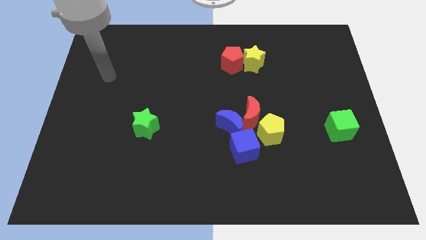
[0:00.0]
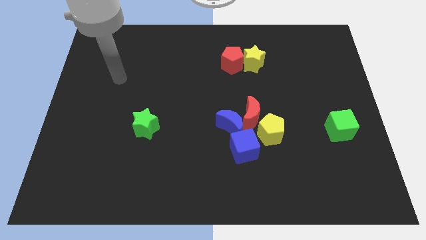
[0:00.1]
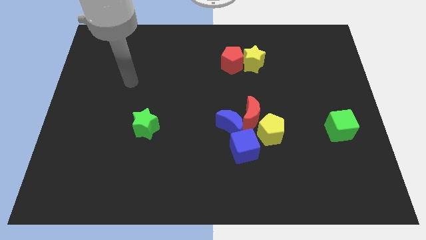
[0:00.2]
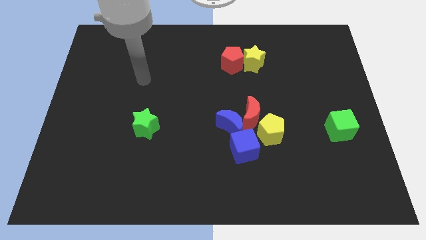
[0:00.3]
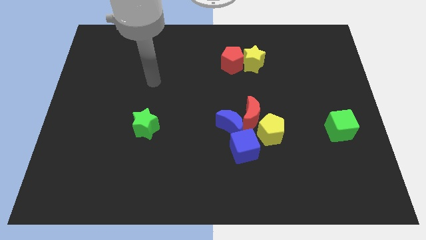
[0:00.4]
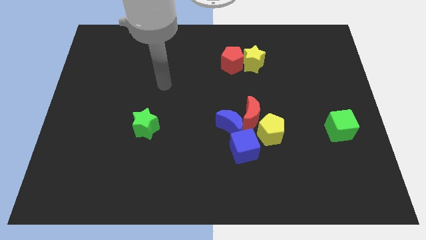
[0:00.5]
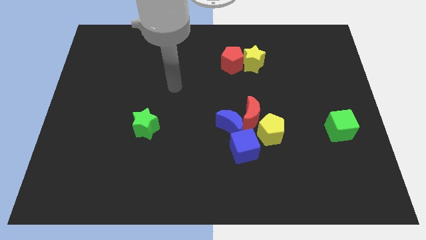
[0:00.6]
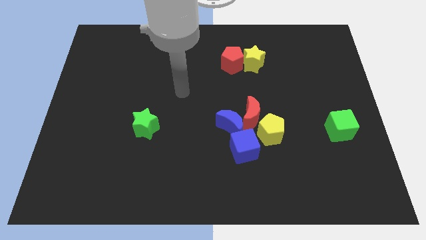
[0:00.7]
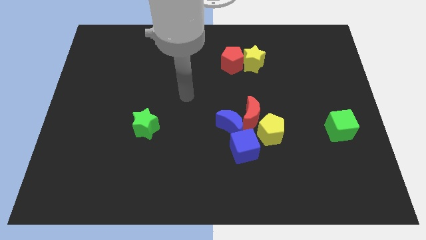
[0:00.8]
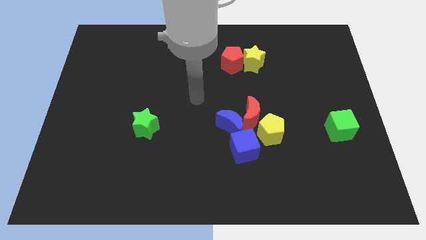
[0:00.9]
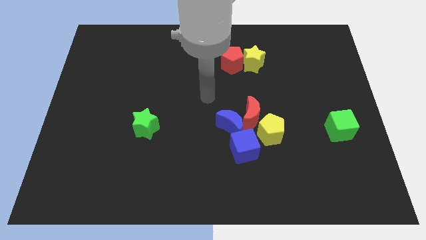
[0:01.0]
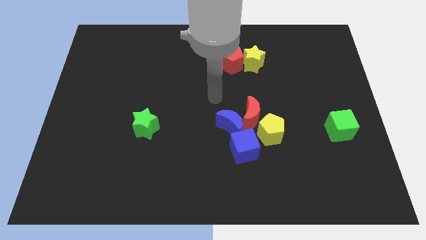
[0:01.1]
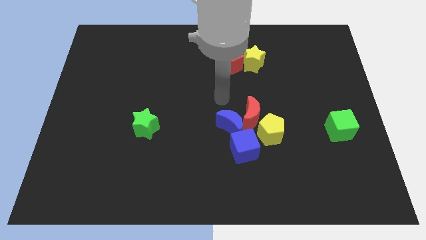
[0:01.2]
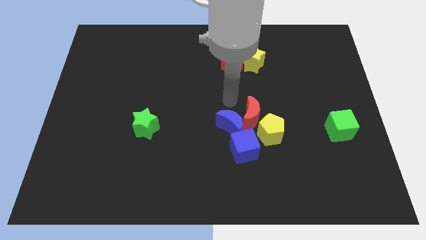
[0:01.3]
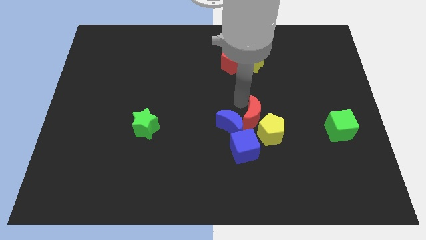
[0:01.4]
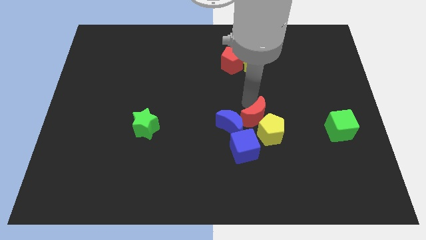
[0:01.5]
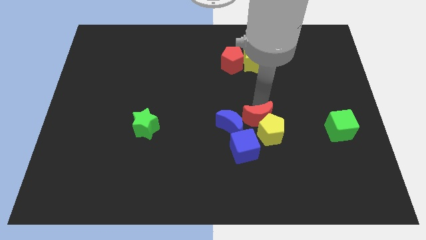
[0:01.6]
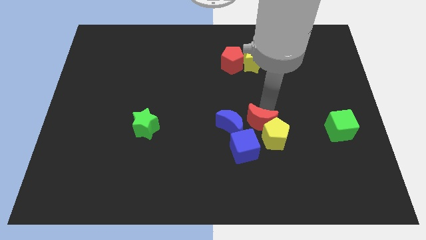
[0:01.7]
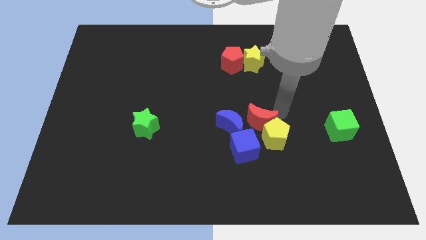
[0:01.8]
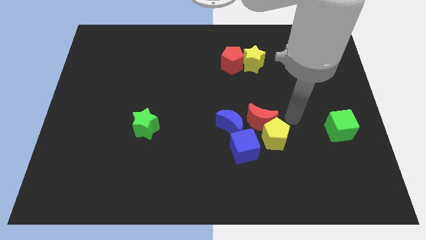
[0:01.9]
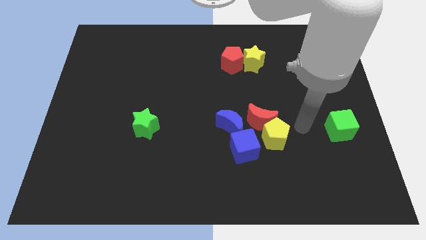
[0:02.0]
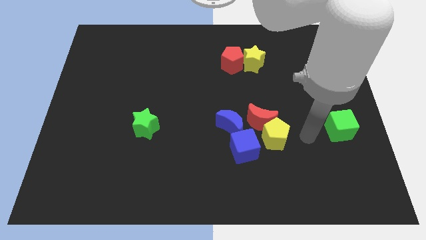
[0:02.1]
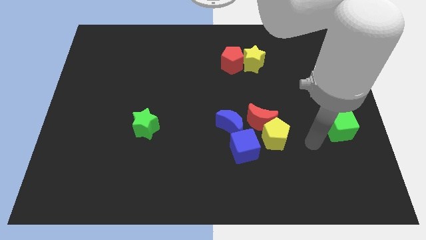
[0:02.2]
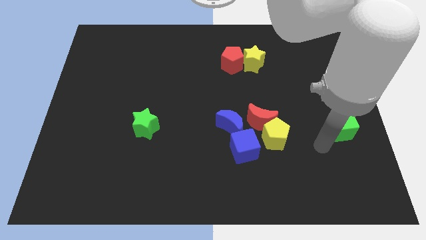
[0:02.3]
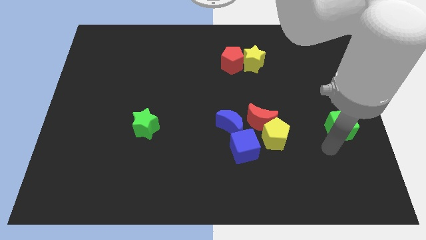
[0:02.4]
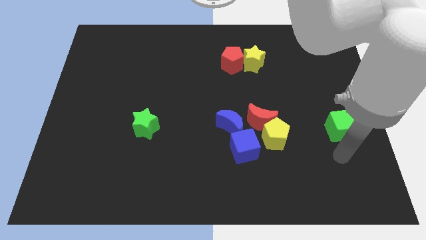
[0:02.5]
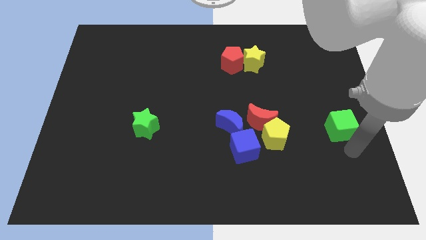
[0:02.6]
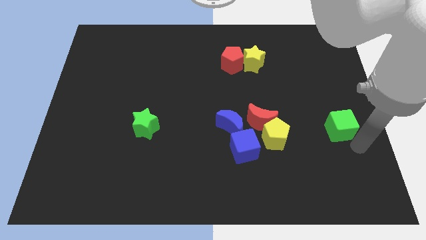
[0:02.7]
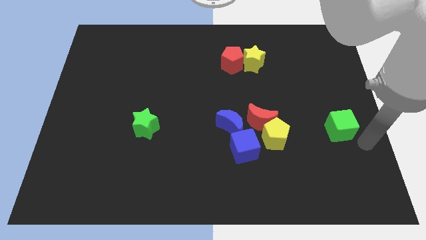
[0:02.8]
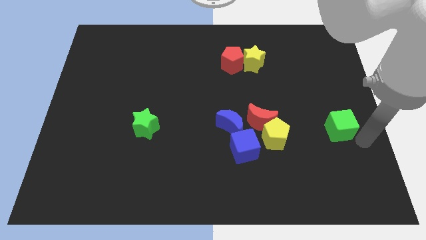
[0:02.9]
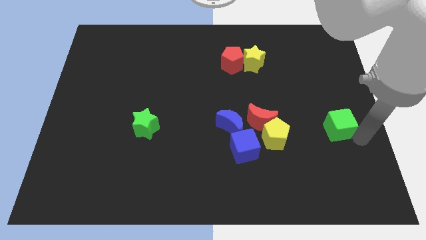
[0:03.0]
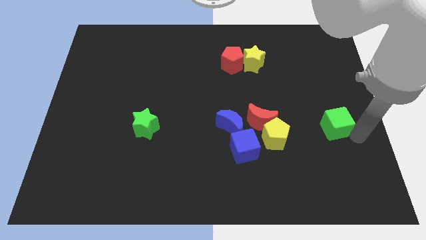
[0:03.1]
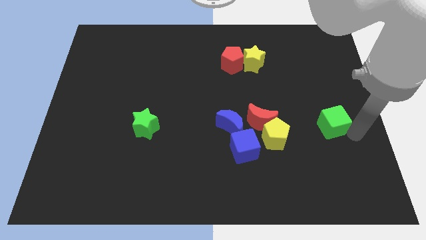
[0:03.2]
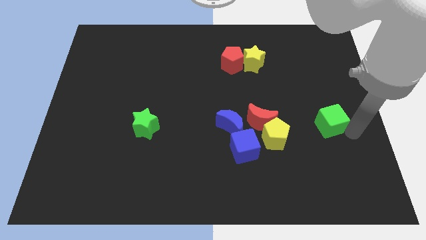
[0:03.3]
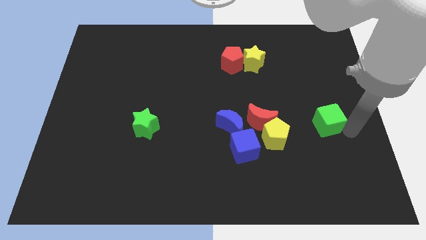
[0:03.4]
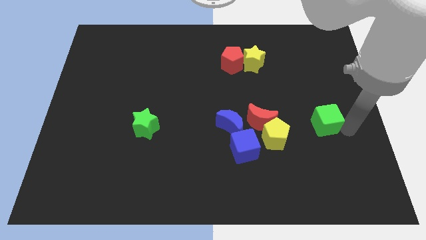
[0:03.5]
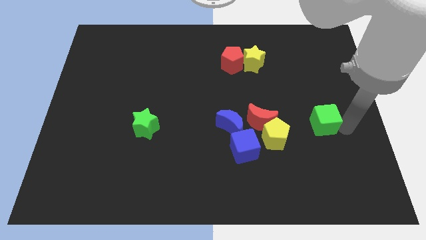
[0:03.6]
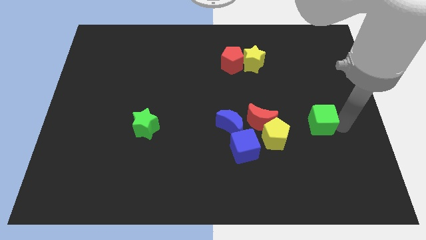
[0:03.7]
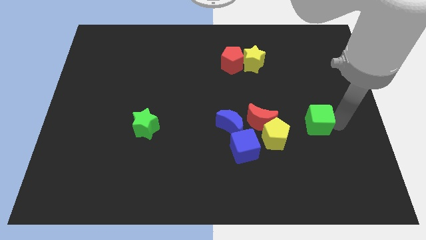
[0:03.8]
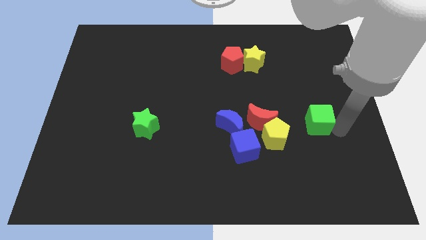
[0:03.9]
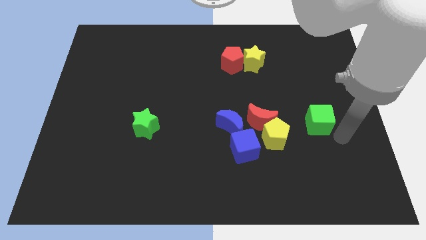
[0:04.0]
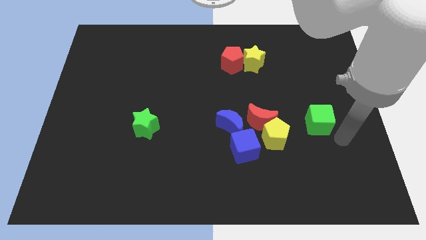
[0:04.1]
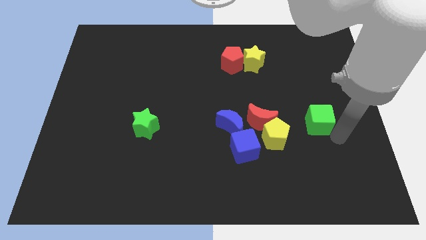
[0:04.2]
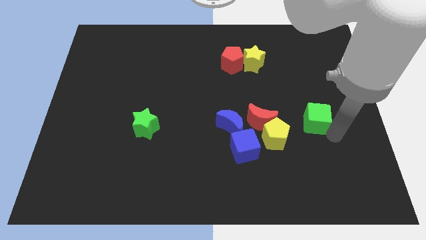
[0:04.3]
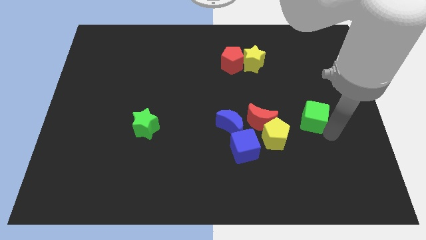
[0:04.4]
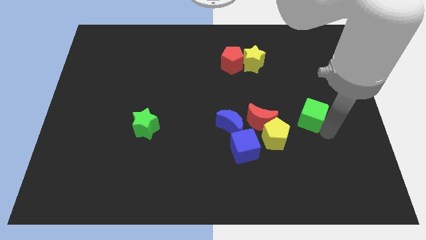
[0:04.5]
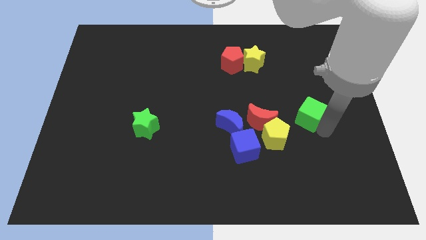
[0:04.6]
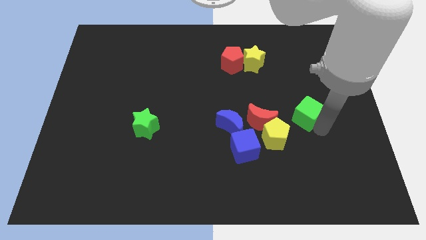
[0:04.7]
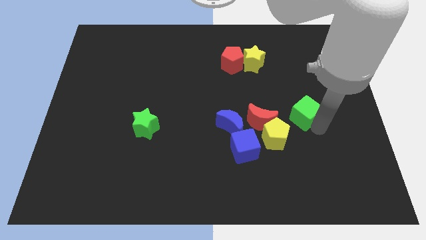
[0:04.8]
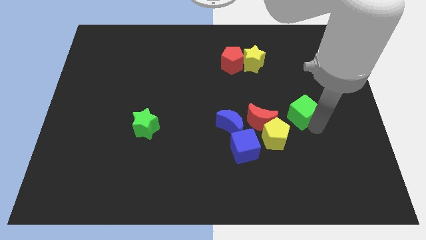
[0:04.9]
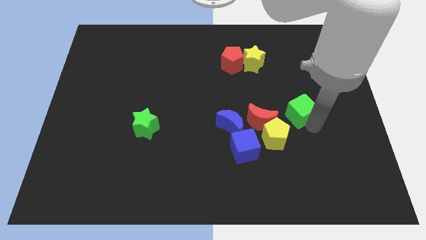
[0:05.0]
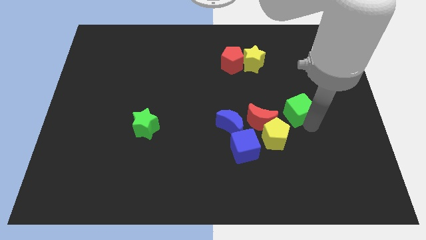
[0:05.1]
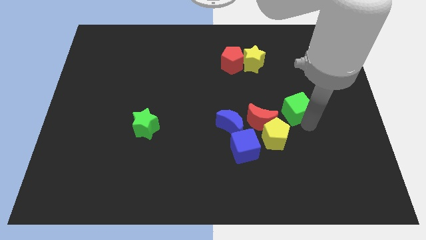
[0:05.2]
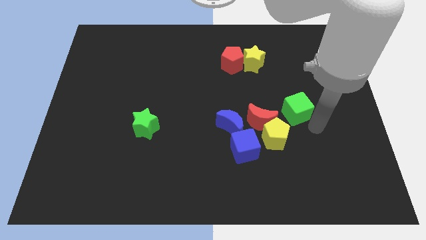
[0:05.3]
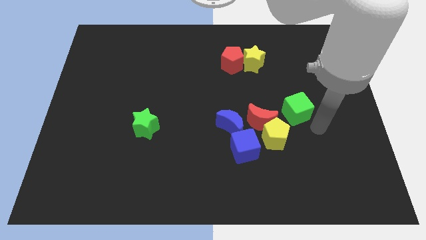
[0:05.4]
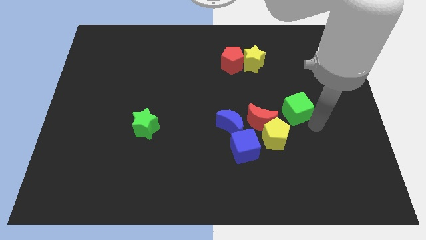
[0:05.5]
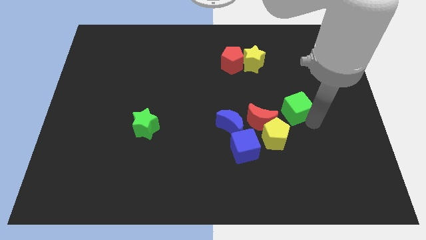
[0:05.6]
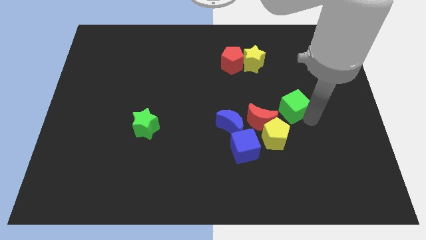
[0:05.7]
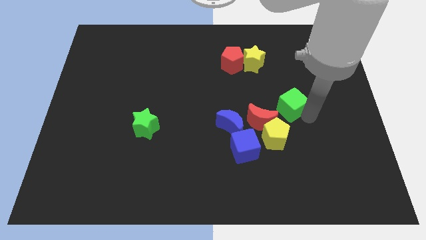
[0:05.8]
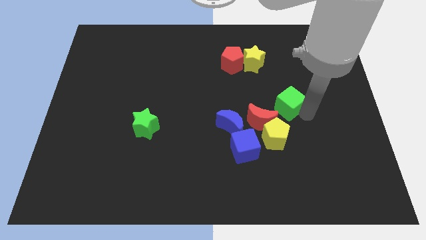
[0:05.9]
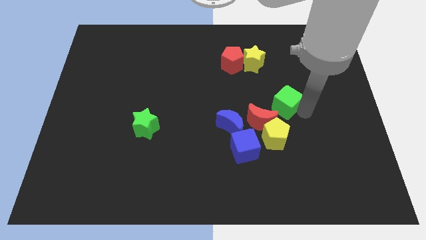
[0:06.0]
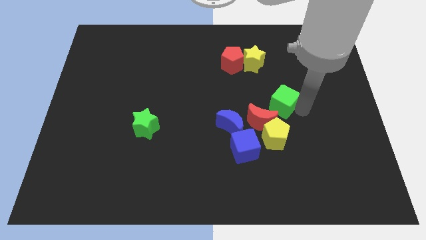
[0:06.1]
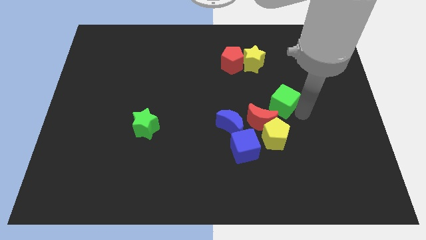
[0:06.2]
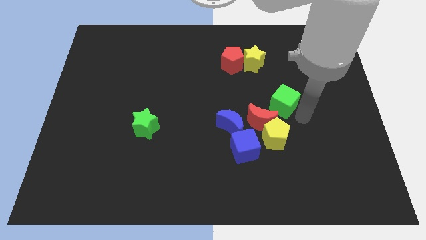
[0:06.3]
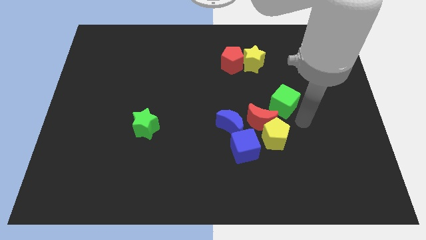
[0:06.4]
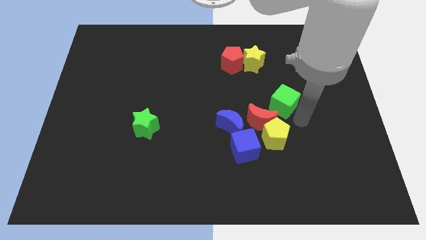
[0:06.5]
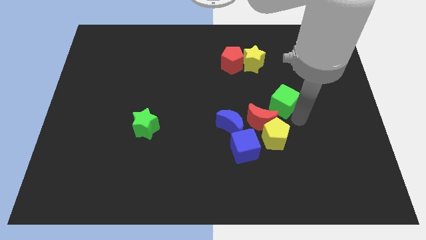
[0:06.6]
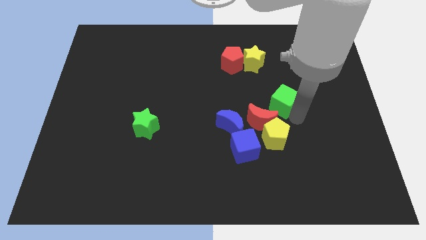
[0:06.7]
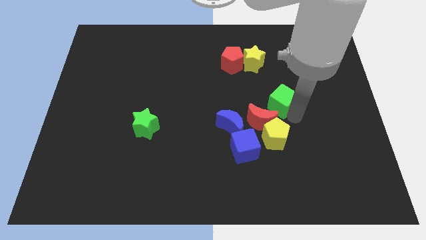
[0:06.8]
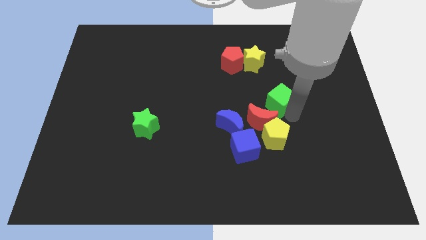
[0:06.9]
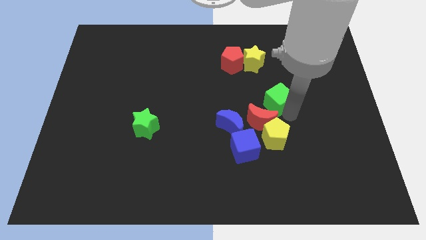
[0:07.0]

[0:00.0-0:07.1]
move the green cube above the red moon
